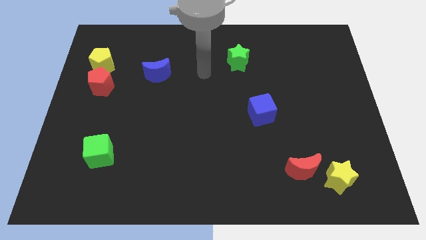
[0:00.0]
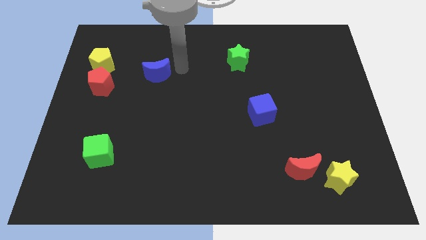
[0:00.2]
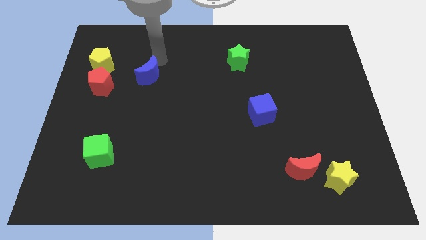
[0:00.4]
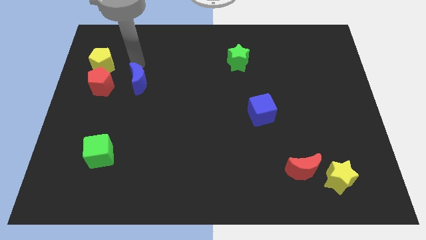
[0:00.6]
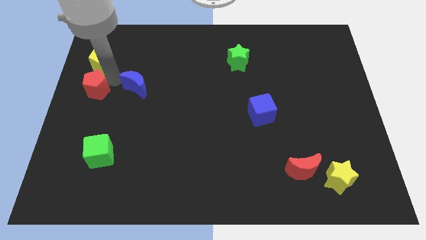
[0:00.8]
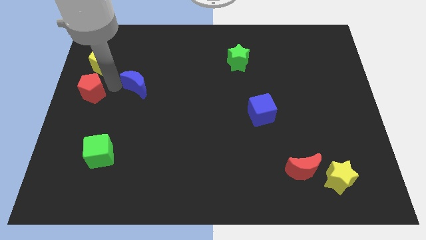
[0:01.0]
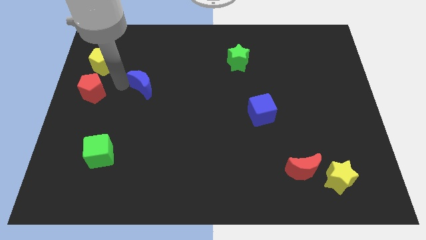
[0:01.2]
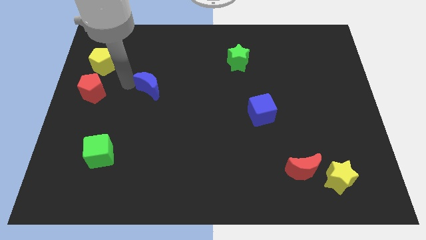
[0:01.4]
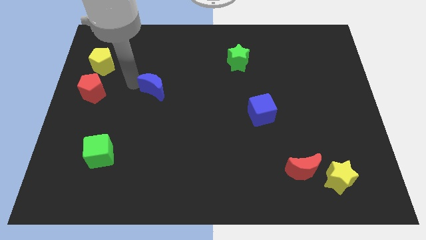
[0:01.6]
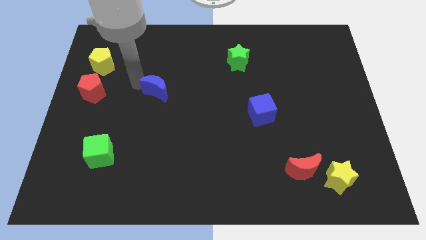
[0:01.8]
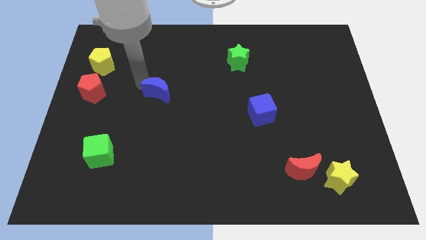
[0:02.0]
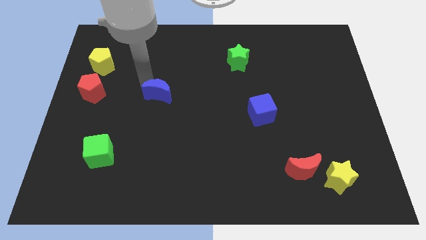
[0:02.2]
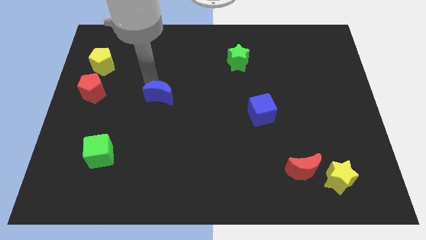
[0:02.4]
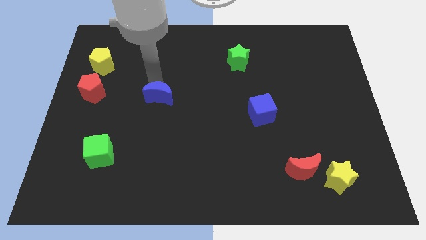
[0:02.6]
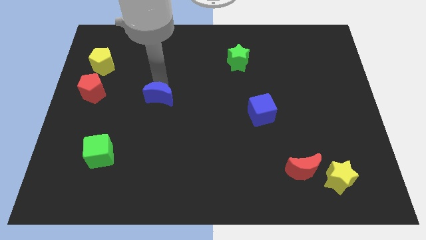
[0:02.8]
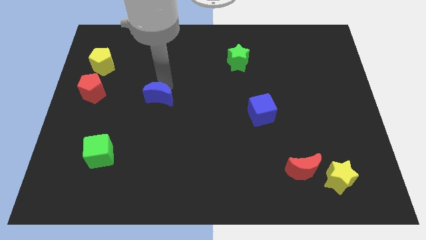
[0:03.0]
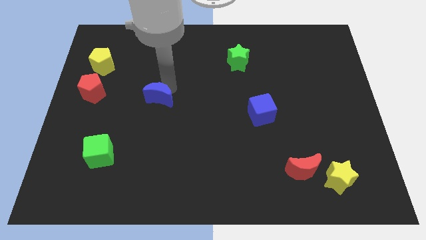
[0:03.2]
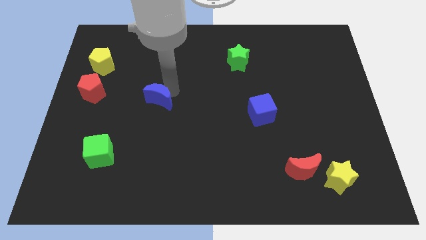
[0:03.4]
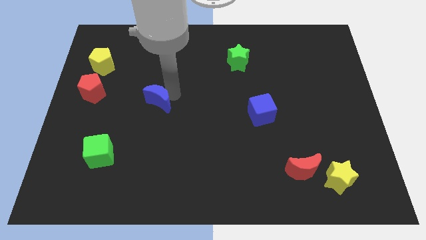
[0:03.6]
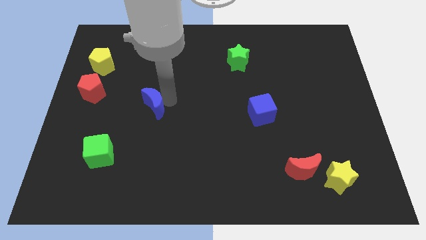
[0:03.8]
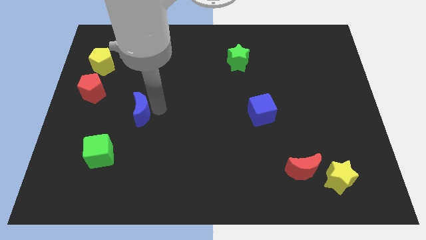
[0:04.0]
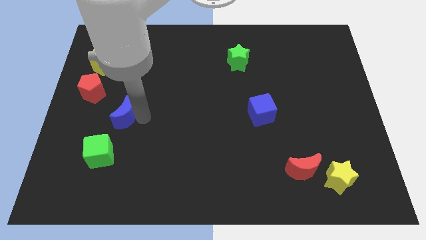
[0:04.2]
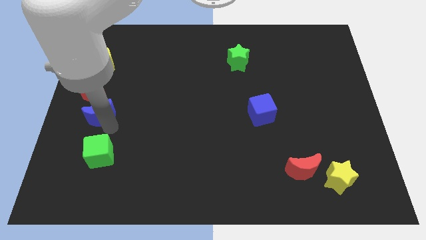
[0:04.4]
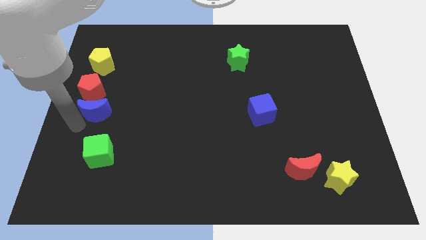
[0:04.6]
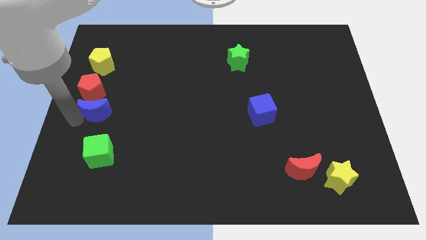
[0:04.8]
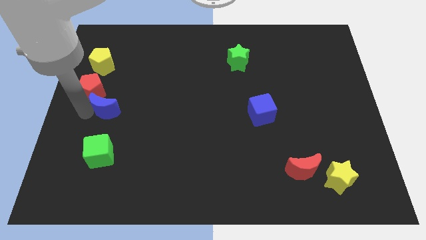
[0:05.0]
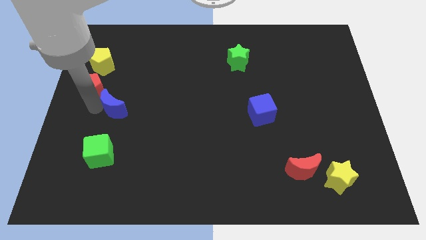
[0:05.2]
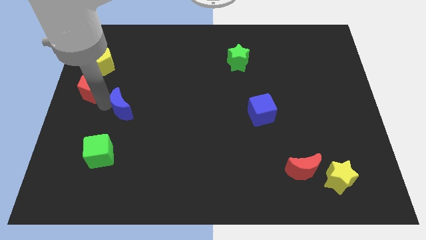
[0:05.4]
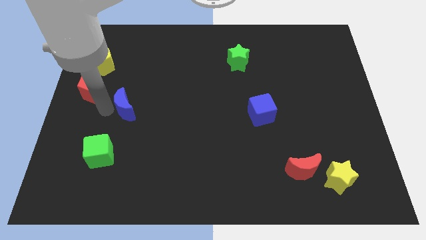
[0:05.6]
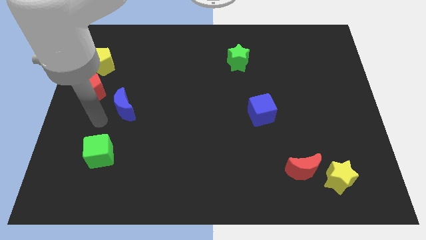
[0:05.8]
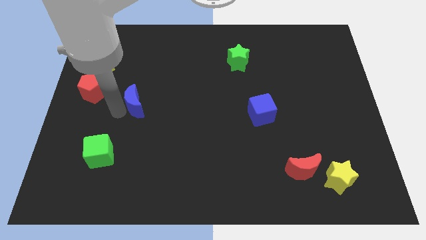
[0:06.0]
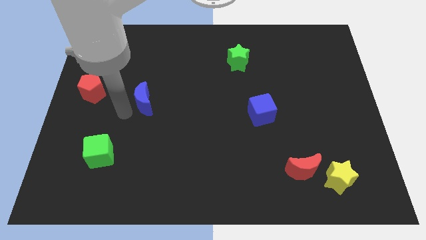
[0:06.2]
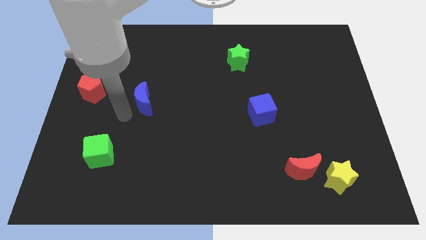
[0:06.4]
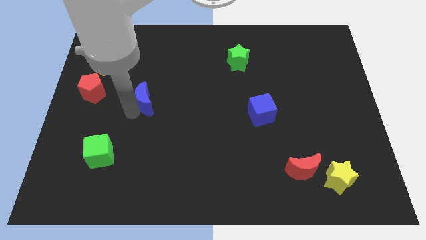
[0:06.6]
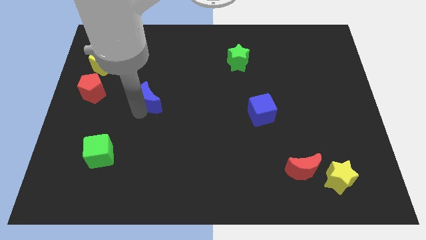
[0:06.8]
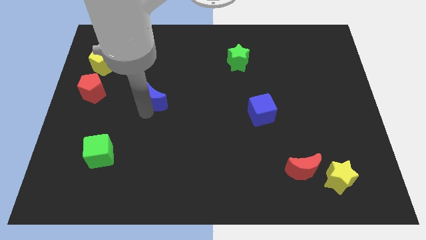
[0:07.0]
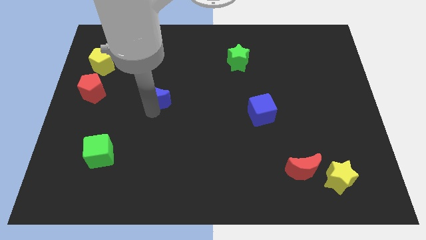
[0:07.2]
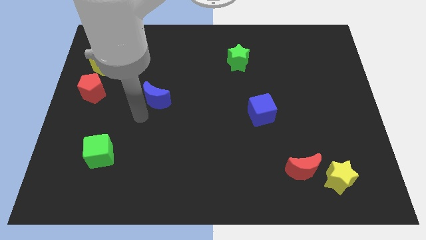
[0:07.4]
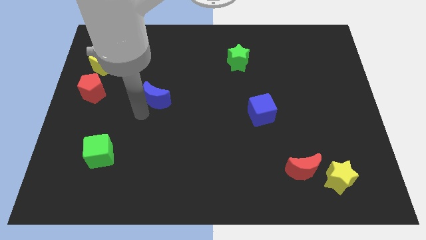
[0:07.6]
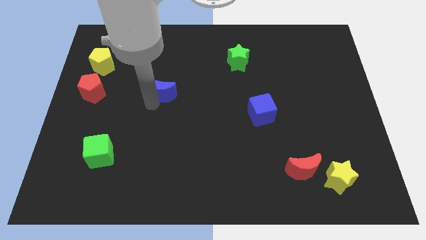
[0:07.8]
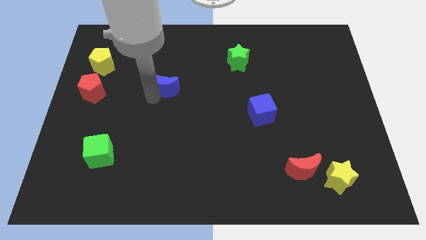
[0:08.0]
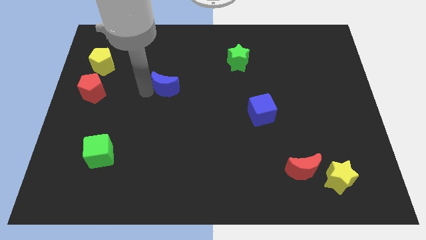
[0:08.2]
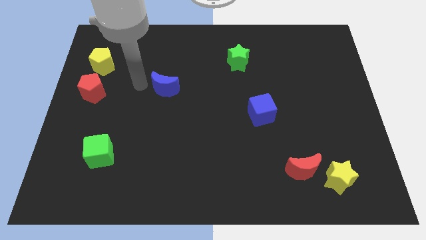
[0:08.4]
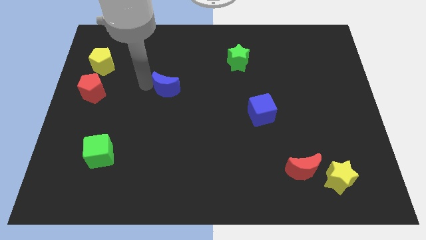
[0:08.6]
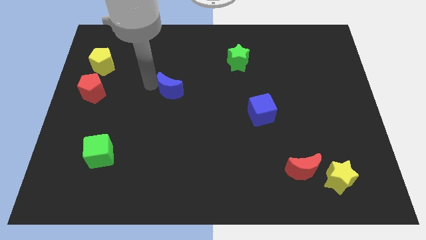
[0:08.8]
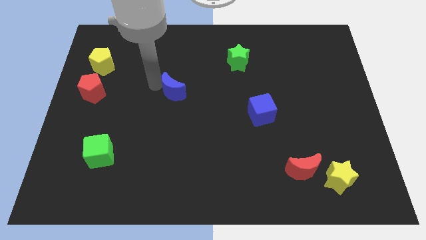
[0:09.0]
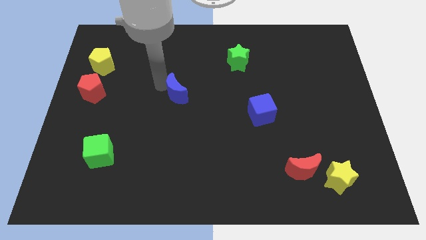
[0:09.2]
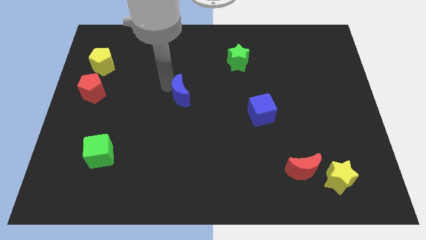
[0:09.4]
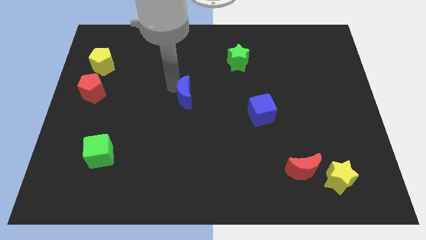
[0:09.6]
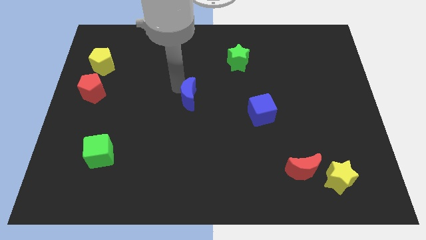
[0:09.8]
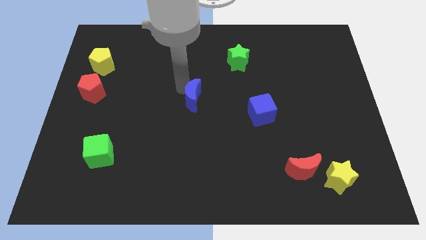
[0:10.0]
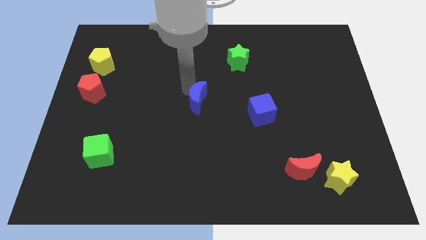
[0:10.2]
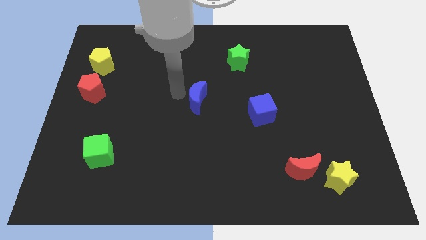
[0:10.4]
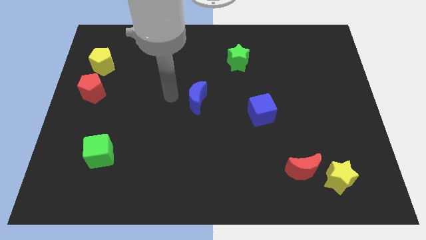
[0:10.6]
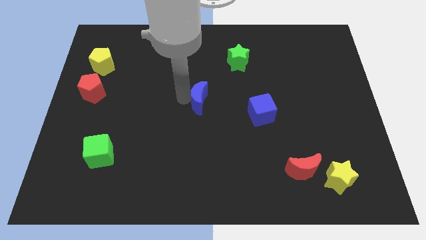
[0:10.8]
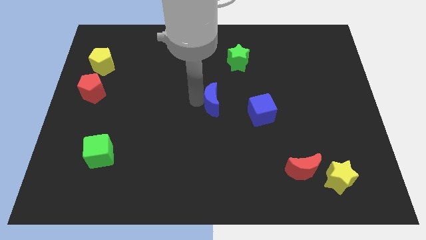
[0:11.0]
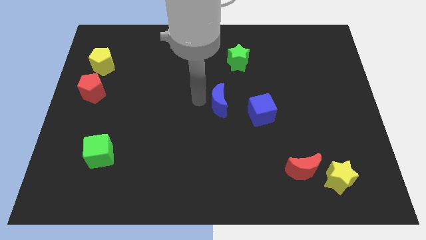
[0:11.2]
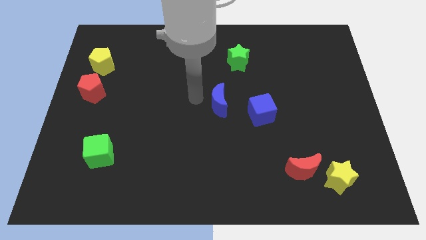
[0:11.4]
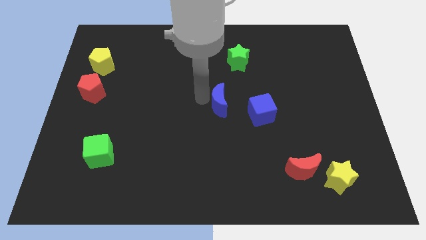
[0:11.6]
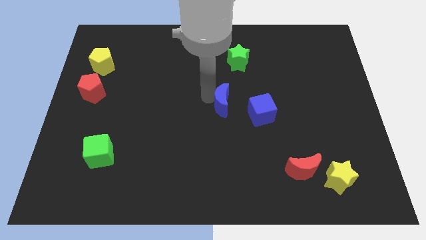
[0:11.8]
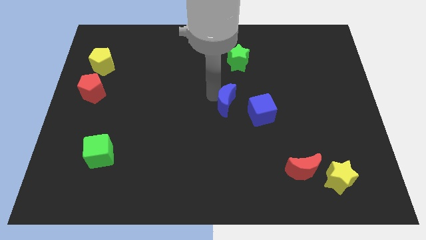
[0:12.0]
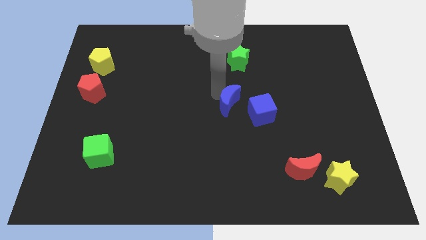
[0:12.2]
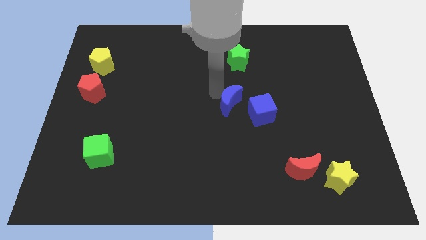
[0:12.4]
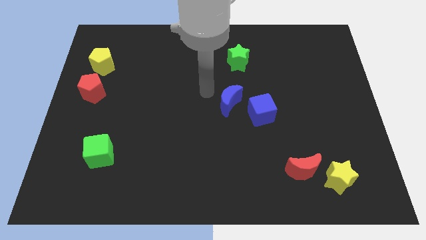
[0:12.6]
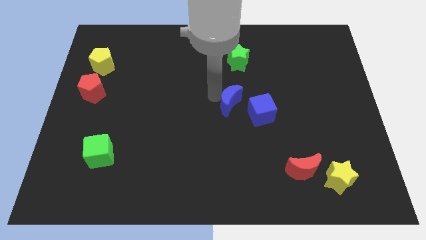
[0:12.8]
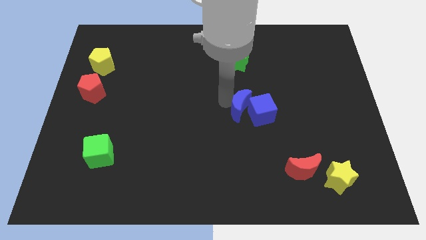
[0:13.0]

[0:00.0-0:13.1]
move the blue moon next to the blue cube

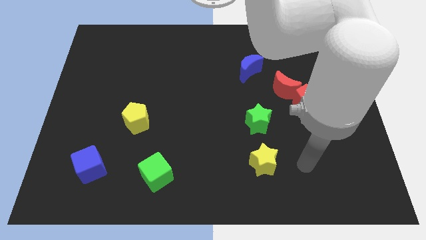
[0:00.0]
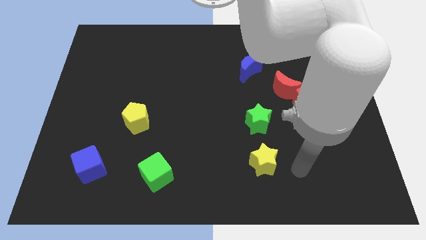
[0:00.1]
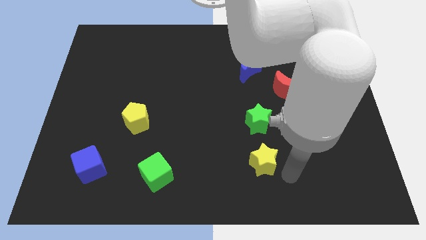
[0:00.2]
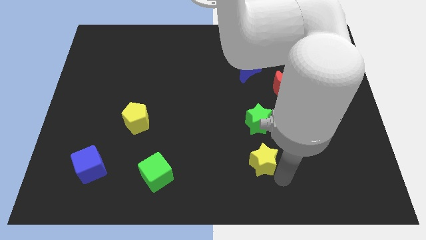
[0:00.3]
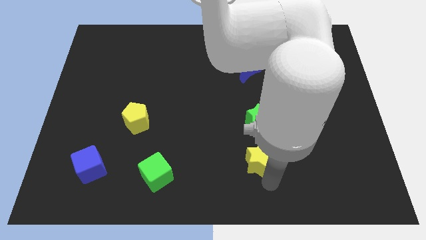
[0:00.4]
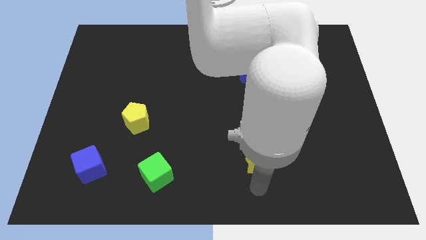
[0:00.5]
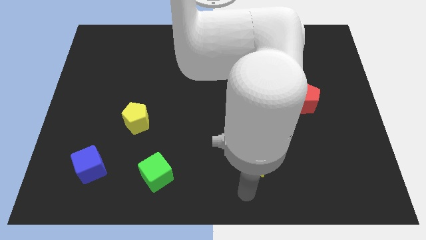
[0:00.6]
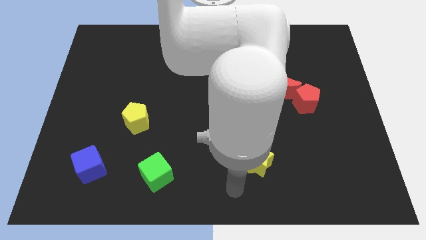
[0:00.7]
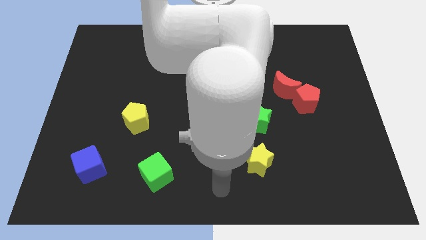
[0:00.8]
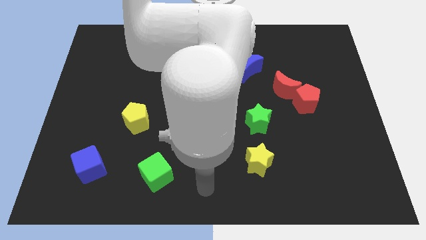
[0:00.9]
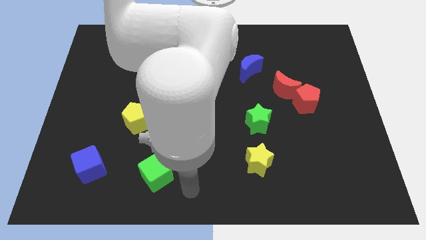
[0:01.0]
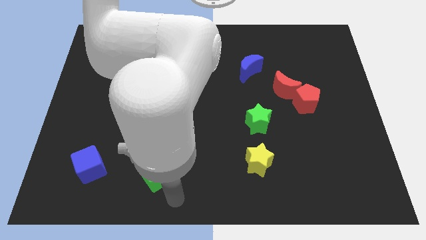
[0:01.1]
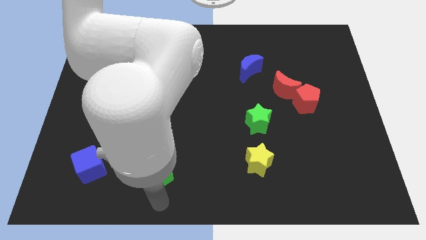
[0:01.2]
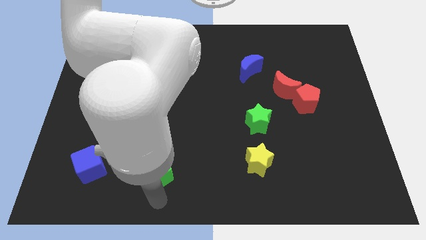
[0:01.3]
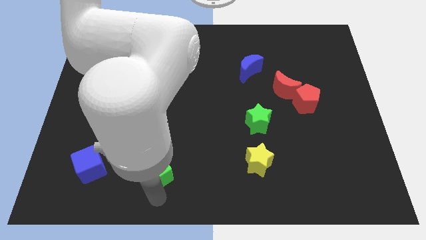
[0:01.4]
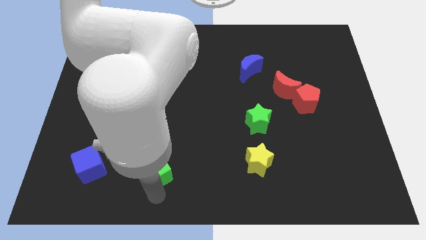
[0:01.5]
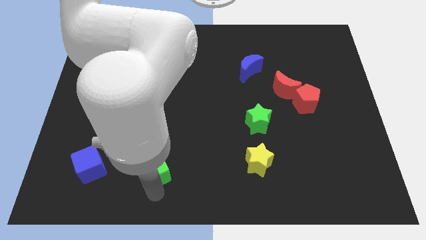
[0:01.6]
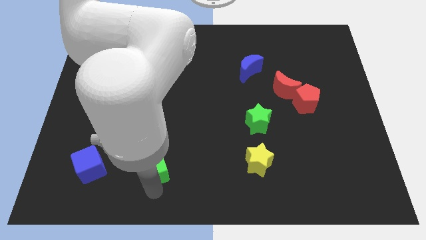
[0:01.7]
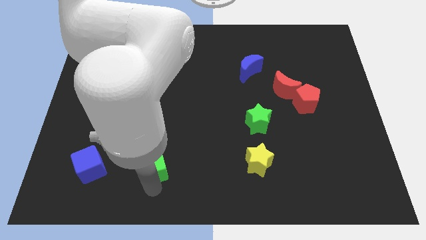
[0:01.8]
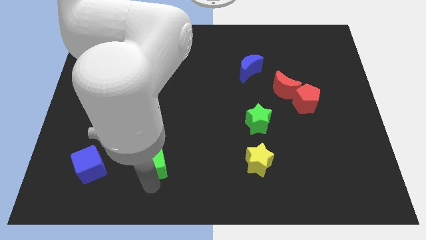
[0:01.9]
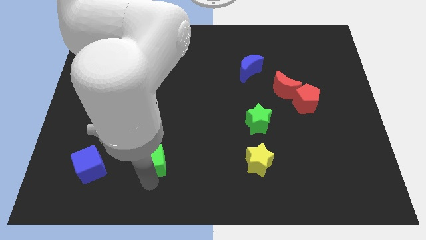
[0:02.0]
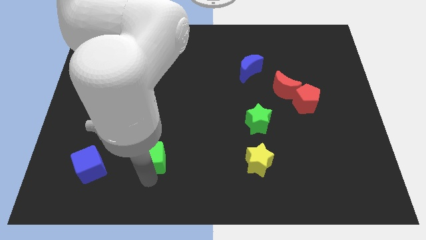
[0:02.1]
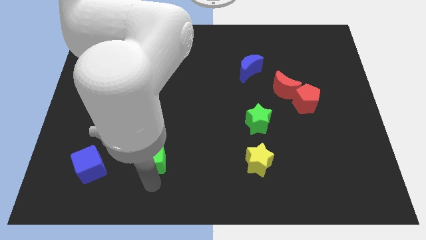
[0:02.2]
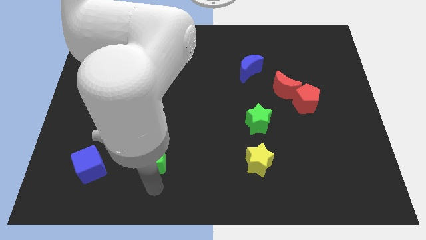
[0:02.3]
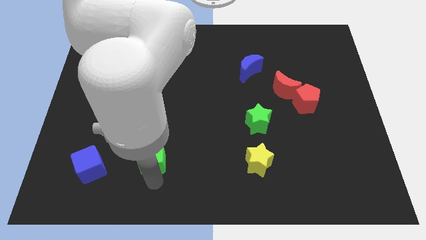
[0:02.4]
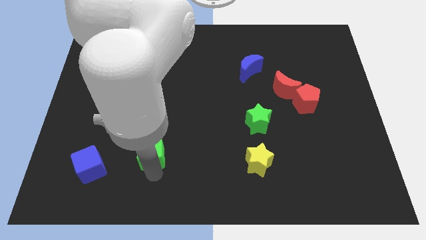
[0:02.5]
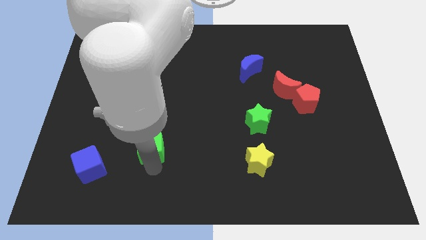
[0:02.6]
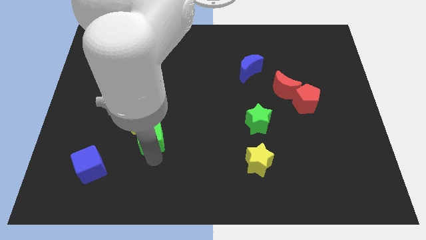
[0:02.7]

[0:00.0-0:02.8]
slide the green cube to the yellow pentagon
